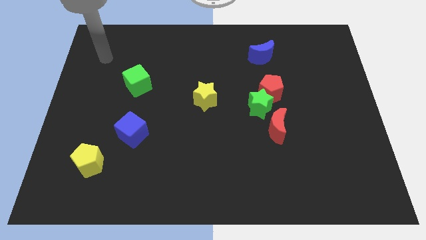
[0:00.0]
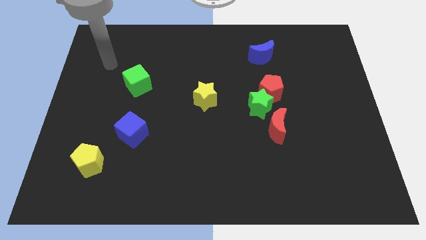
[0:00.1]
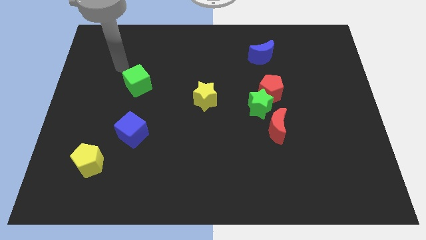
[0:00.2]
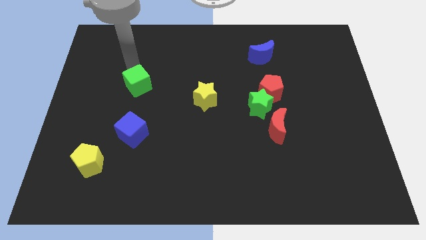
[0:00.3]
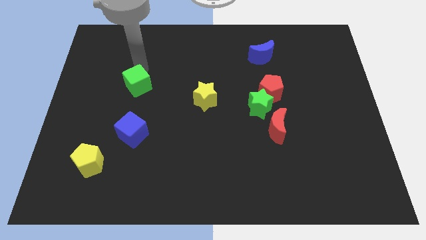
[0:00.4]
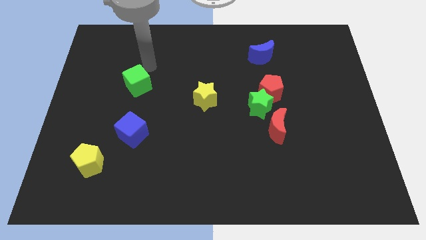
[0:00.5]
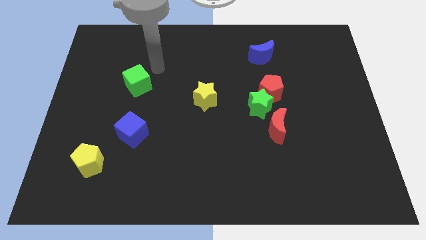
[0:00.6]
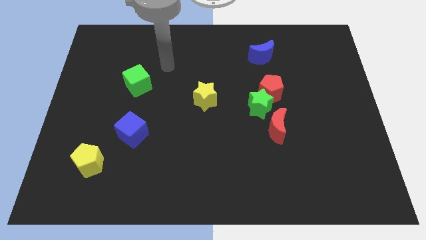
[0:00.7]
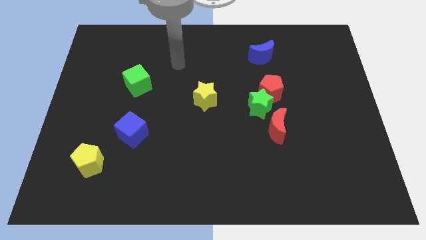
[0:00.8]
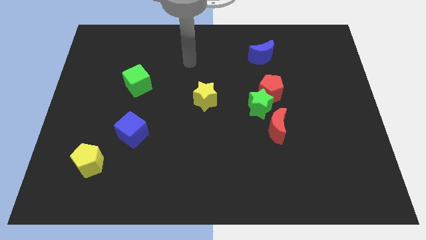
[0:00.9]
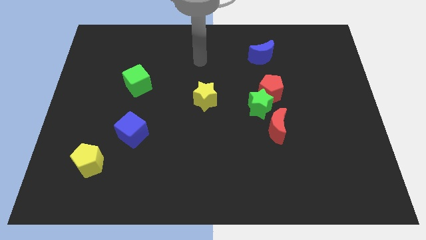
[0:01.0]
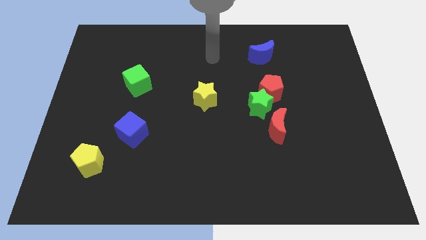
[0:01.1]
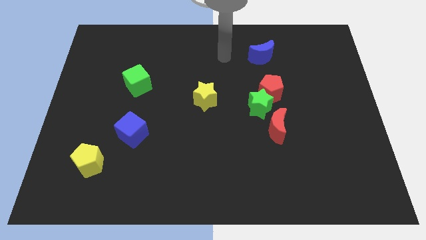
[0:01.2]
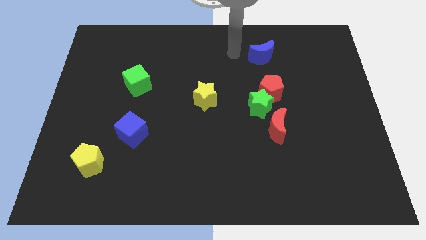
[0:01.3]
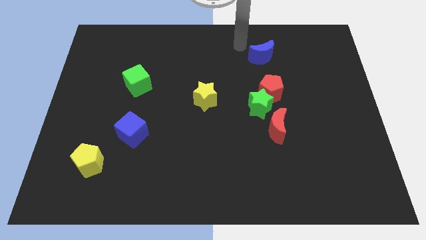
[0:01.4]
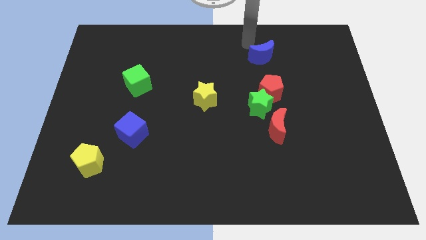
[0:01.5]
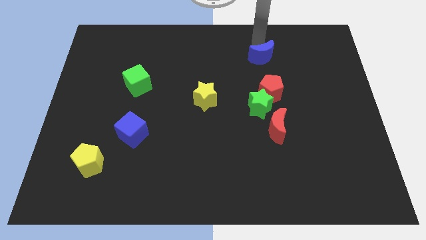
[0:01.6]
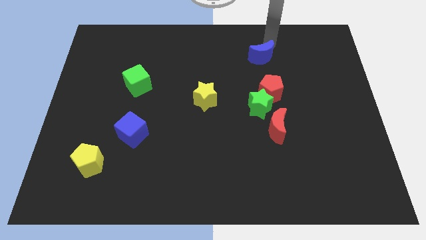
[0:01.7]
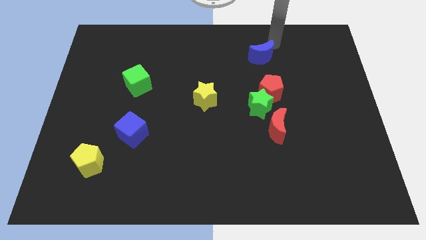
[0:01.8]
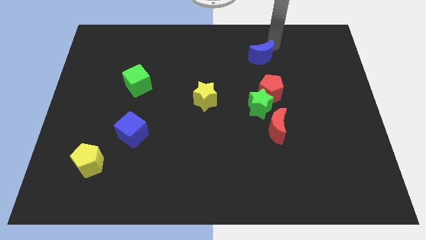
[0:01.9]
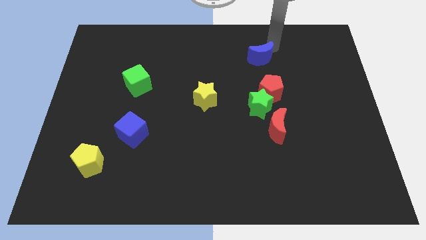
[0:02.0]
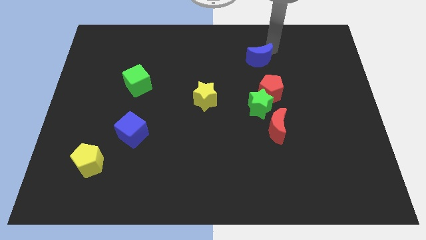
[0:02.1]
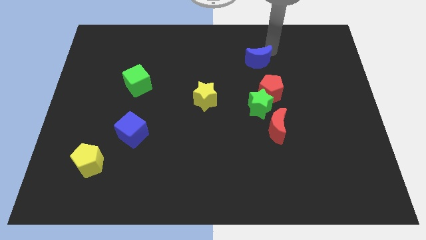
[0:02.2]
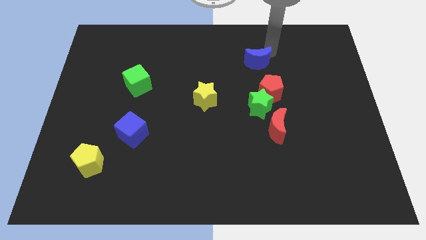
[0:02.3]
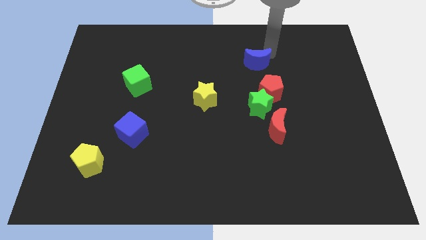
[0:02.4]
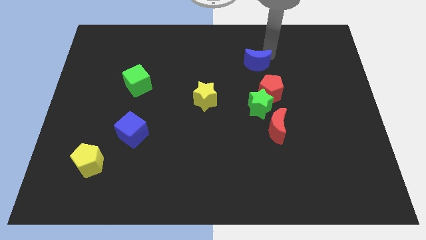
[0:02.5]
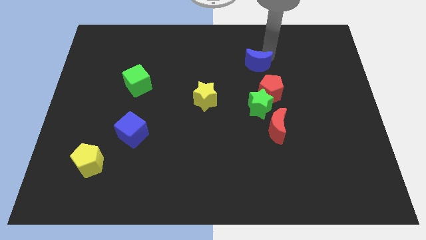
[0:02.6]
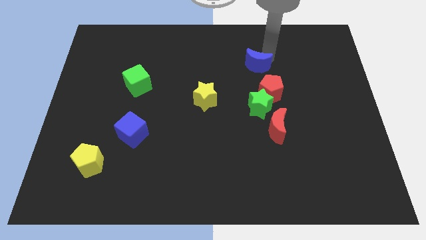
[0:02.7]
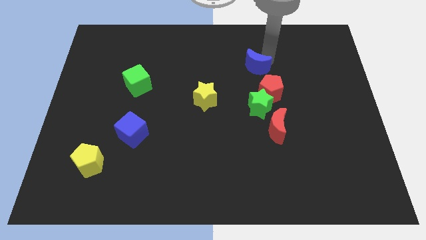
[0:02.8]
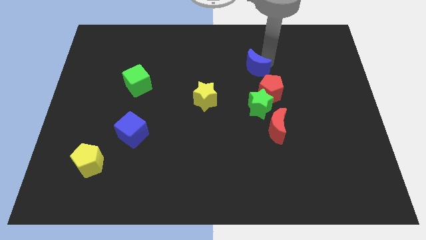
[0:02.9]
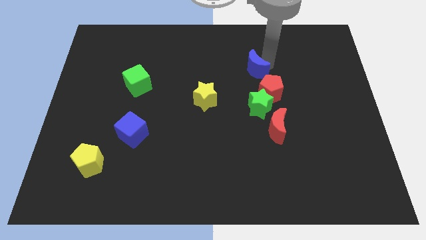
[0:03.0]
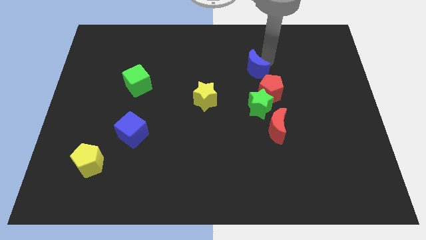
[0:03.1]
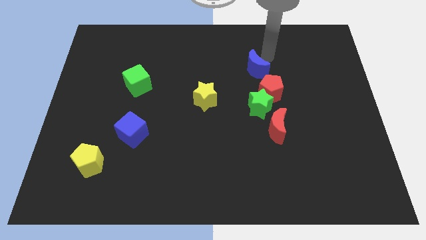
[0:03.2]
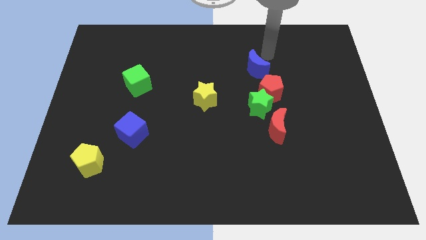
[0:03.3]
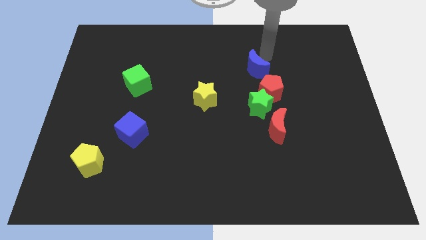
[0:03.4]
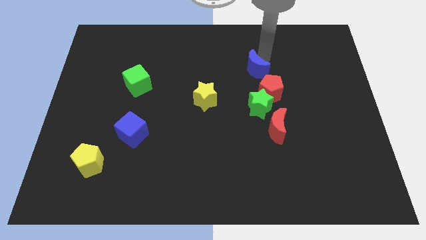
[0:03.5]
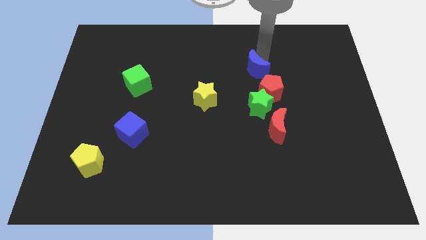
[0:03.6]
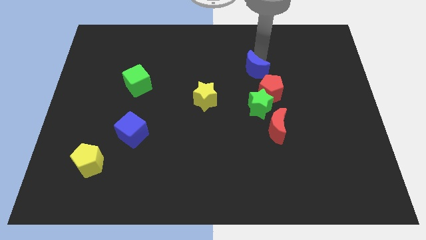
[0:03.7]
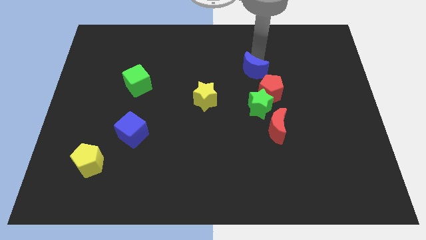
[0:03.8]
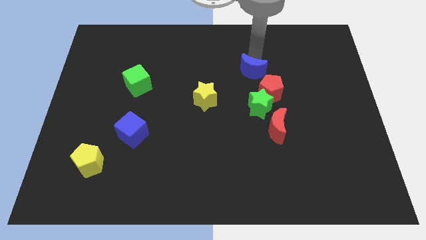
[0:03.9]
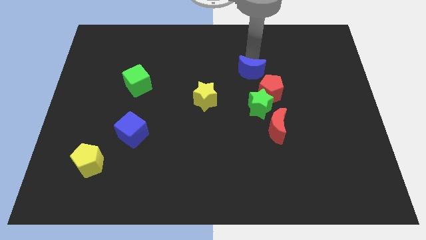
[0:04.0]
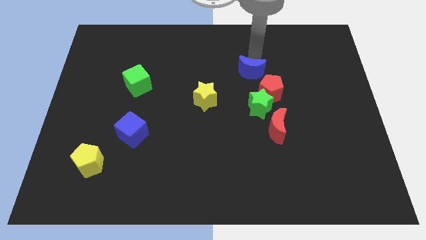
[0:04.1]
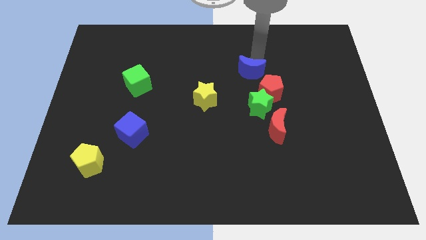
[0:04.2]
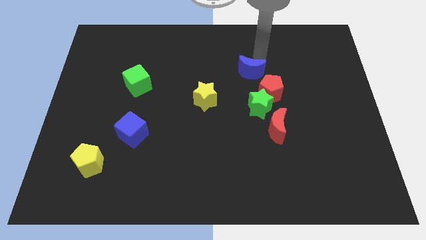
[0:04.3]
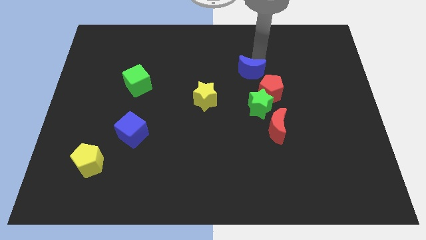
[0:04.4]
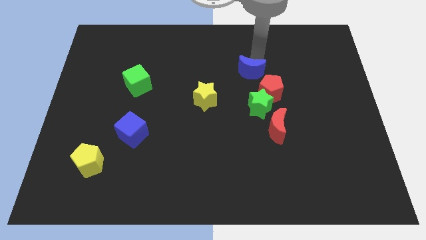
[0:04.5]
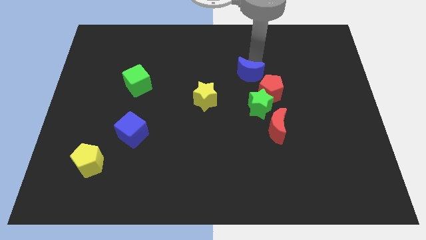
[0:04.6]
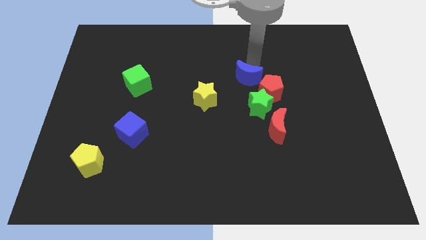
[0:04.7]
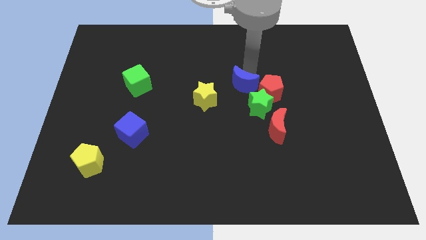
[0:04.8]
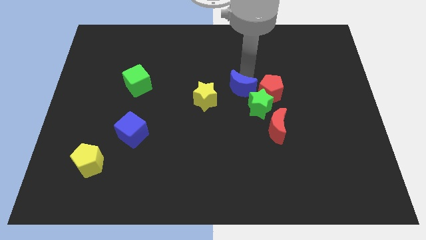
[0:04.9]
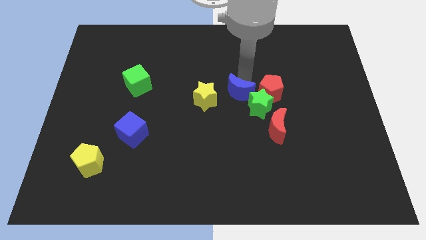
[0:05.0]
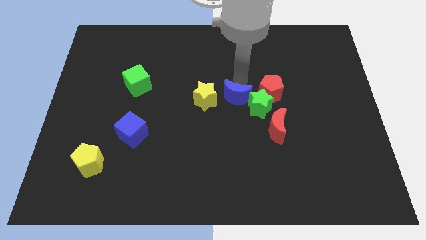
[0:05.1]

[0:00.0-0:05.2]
put the blue moon diagonally down and to the left of the red pentagon

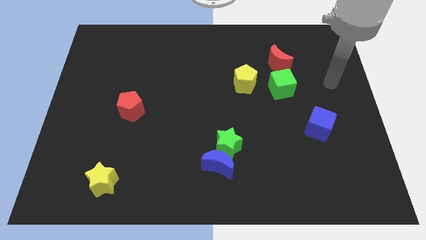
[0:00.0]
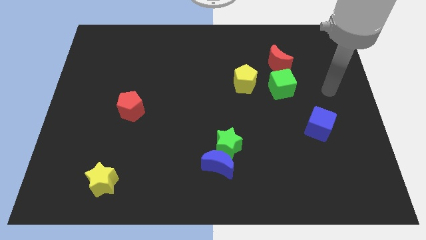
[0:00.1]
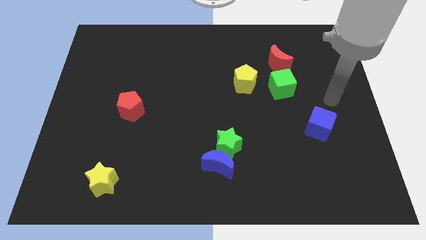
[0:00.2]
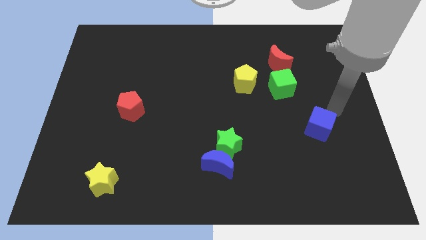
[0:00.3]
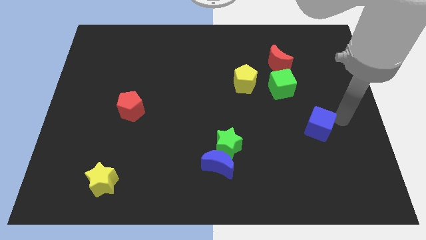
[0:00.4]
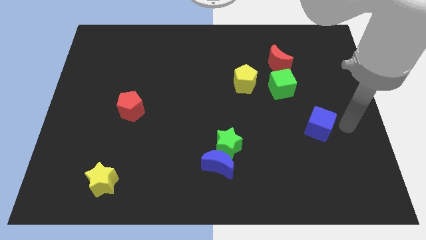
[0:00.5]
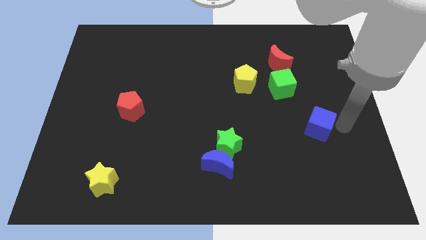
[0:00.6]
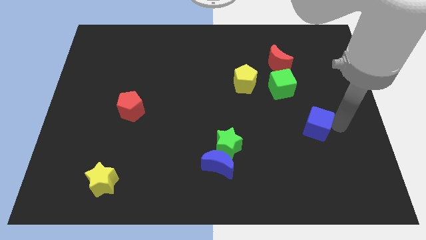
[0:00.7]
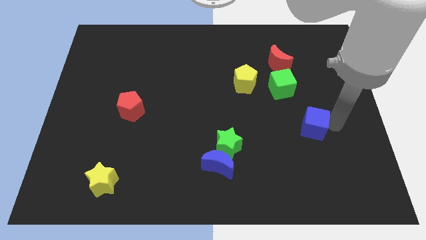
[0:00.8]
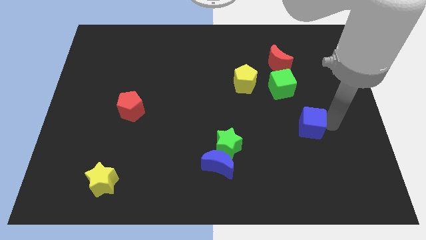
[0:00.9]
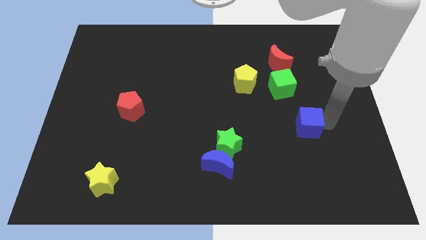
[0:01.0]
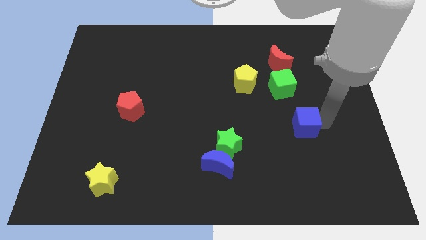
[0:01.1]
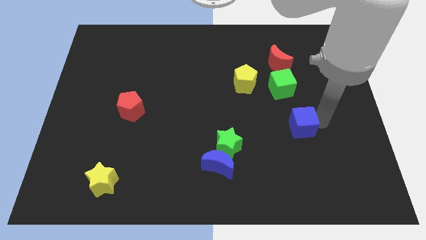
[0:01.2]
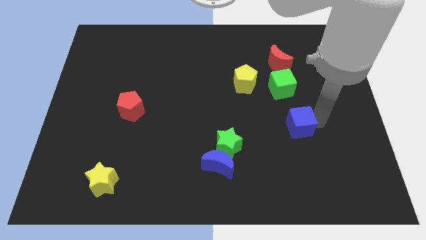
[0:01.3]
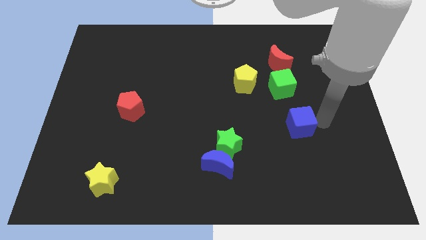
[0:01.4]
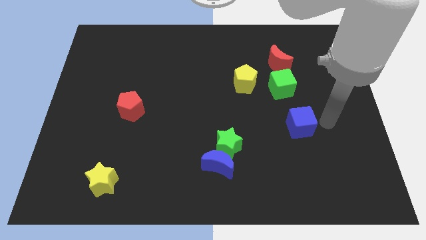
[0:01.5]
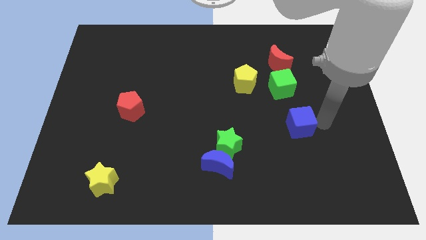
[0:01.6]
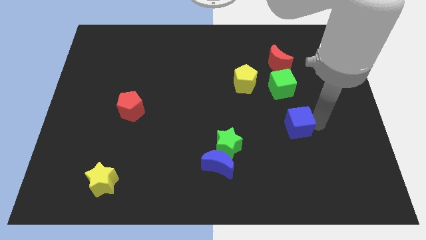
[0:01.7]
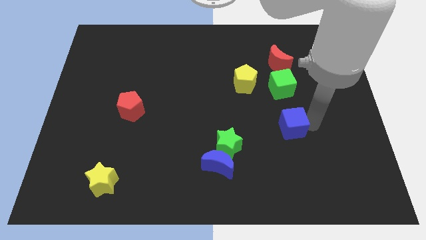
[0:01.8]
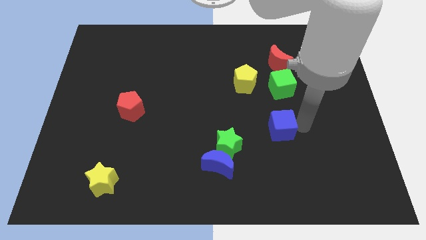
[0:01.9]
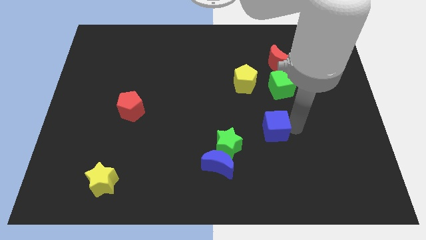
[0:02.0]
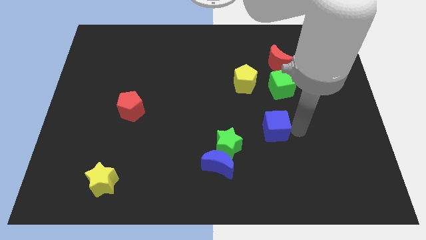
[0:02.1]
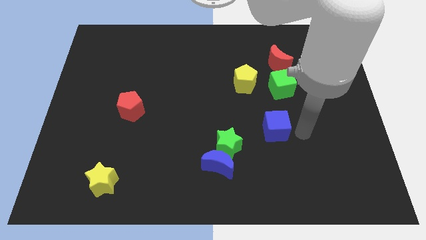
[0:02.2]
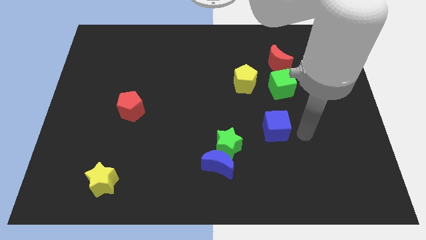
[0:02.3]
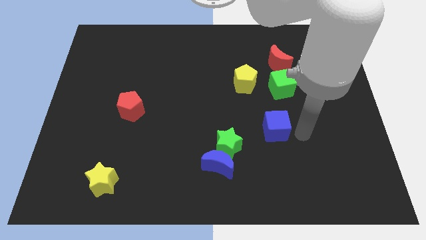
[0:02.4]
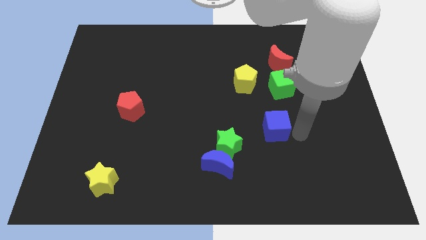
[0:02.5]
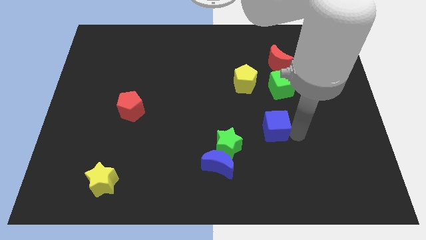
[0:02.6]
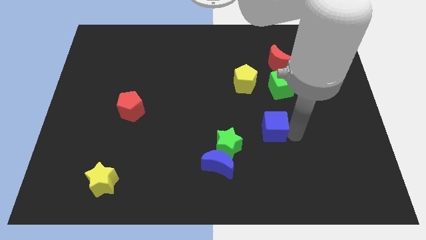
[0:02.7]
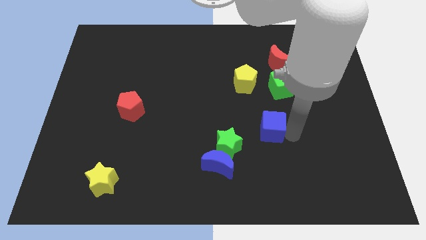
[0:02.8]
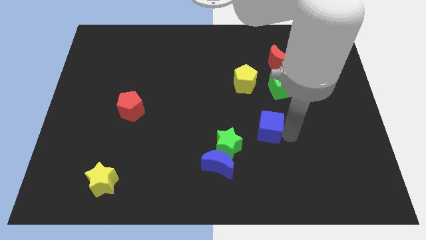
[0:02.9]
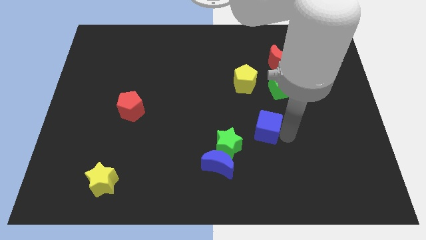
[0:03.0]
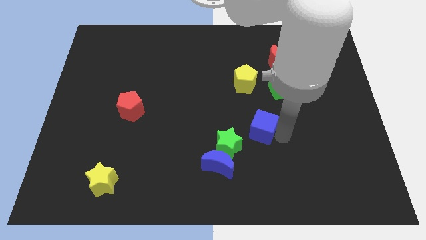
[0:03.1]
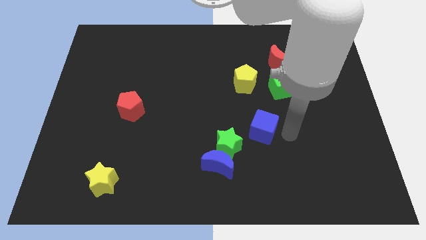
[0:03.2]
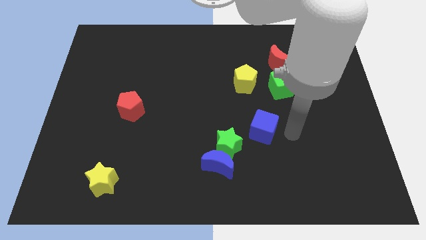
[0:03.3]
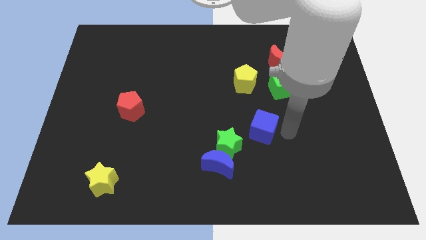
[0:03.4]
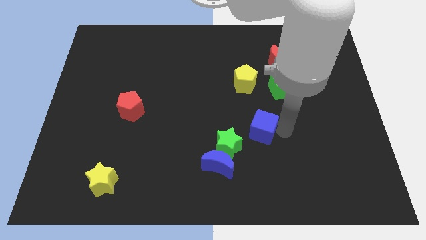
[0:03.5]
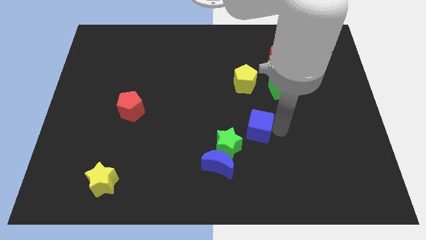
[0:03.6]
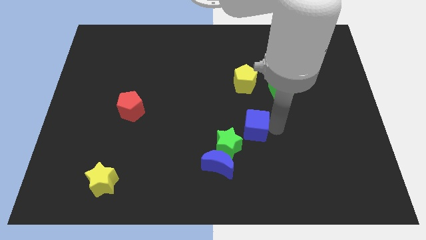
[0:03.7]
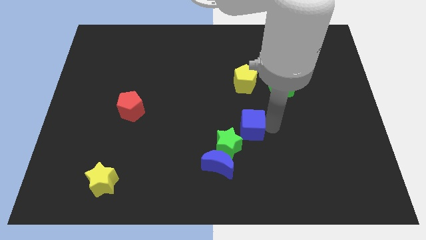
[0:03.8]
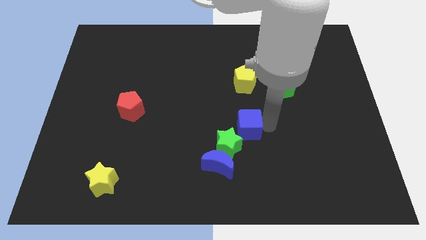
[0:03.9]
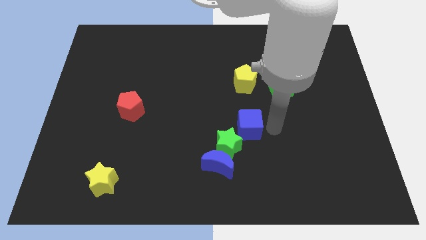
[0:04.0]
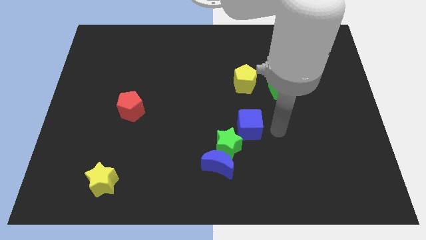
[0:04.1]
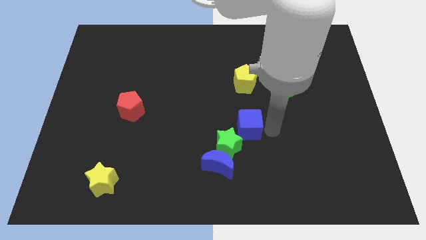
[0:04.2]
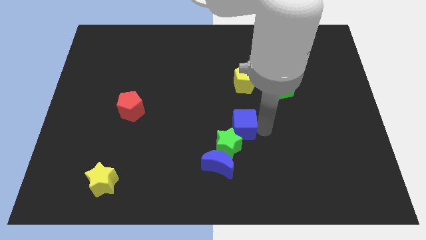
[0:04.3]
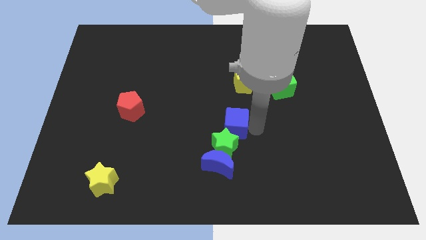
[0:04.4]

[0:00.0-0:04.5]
move the blue cube to the top side of the blue moon
